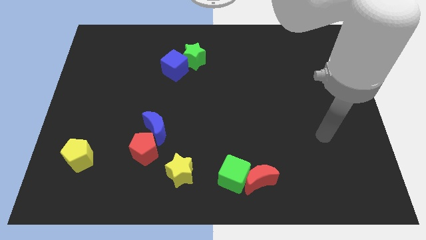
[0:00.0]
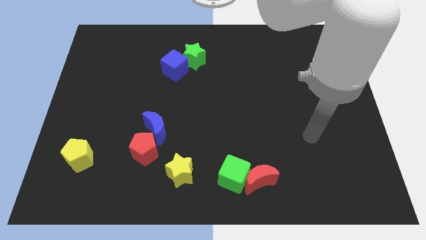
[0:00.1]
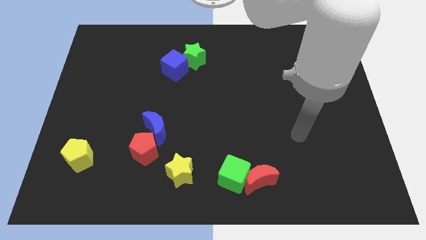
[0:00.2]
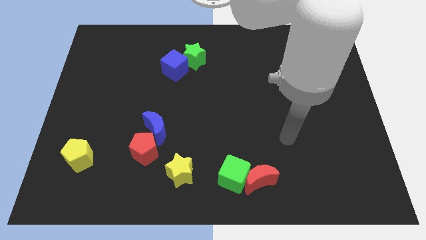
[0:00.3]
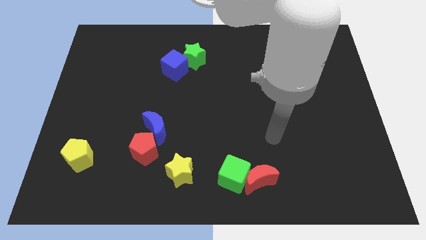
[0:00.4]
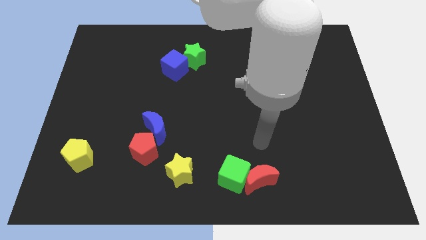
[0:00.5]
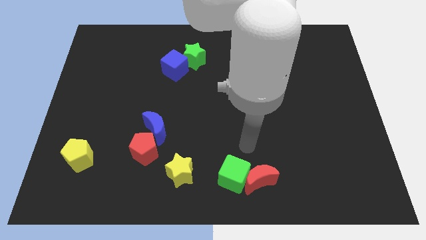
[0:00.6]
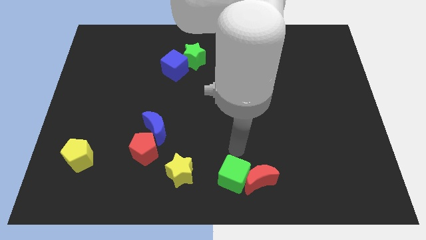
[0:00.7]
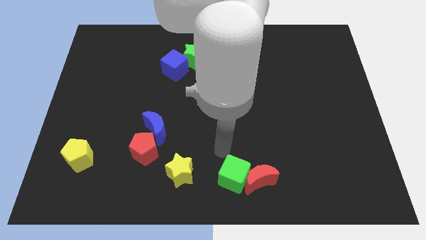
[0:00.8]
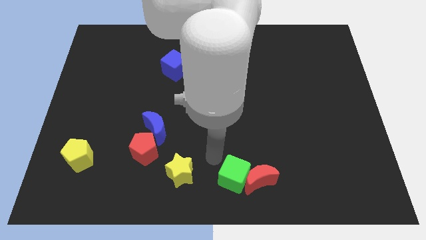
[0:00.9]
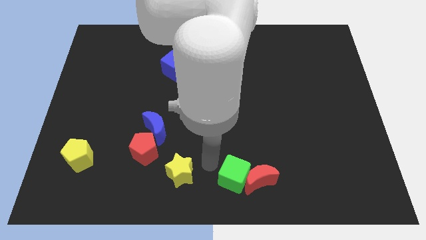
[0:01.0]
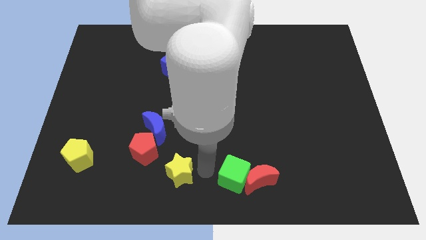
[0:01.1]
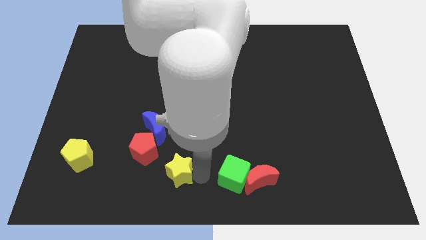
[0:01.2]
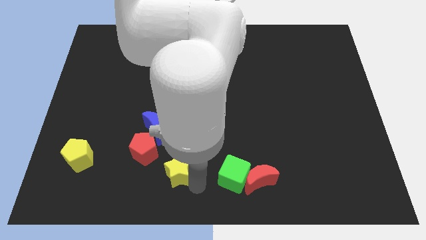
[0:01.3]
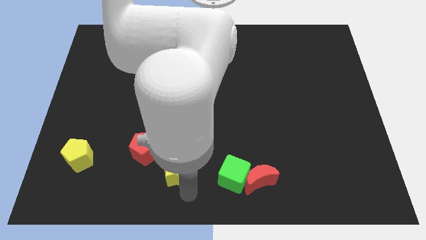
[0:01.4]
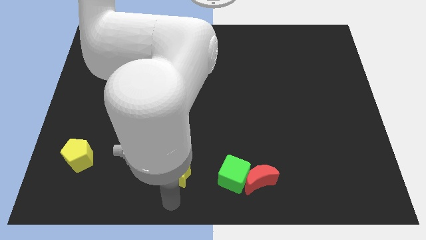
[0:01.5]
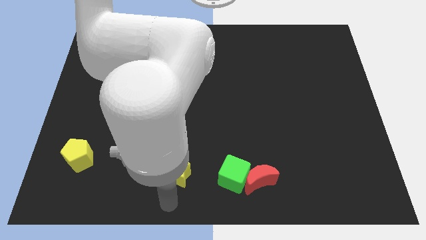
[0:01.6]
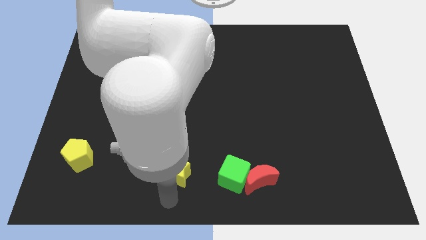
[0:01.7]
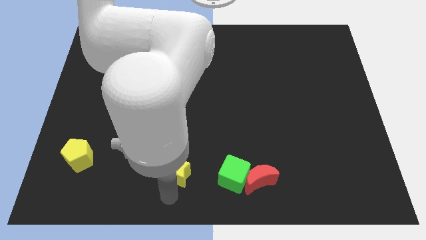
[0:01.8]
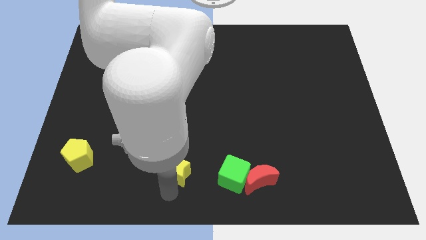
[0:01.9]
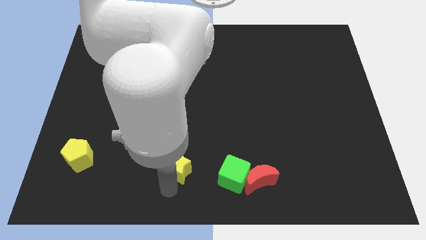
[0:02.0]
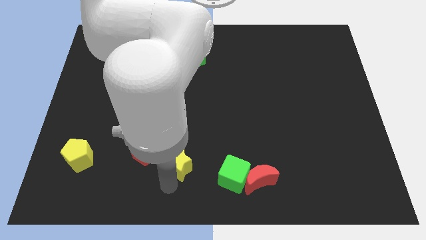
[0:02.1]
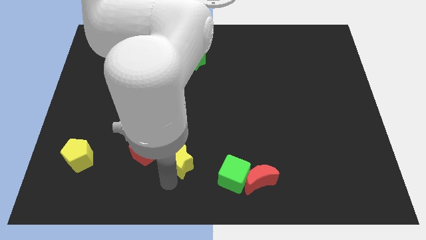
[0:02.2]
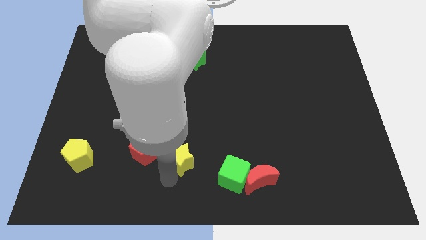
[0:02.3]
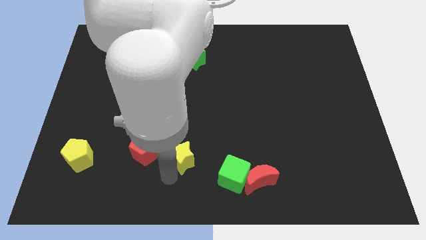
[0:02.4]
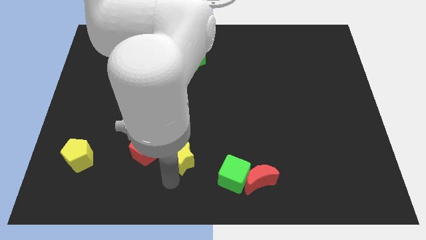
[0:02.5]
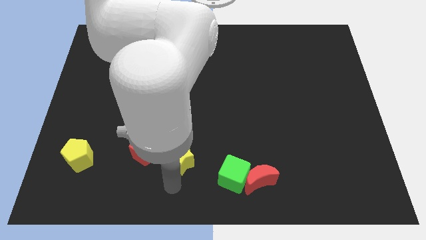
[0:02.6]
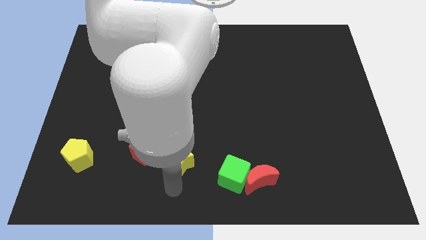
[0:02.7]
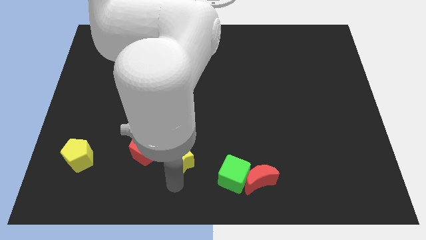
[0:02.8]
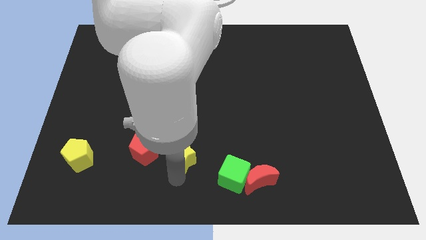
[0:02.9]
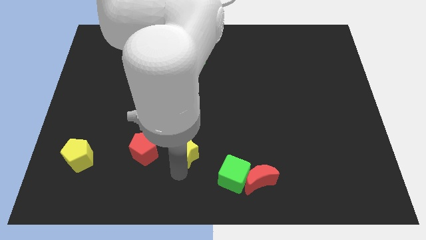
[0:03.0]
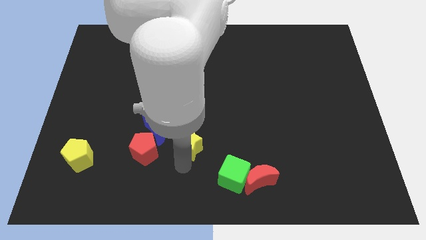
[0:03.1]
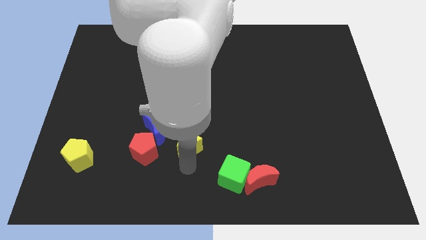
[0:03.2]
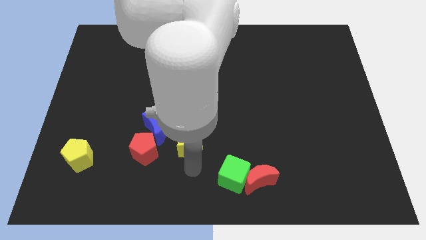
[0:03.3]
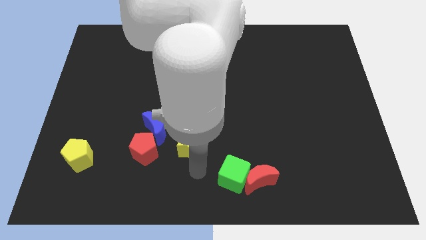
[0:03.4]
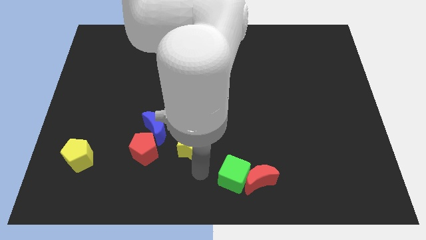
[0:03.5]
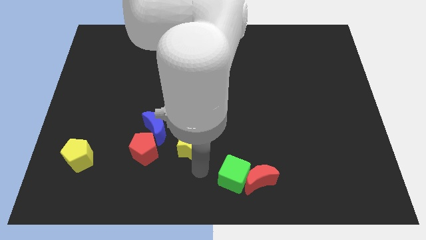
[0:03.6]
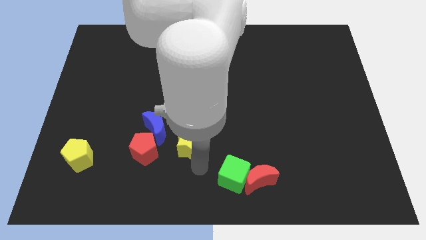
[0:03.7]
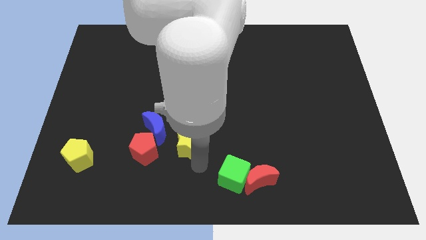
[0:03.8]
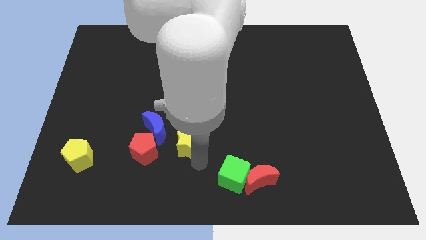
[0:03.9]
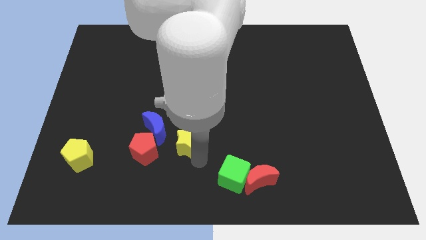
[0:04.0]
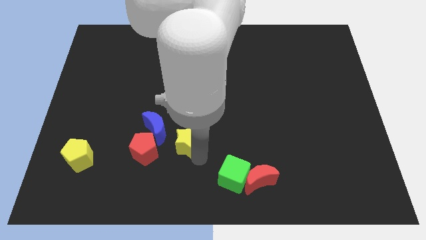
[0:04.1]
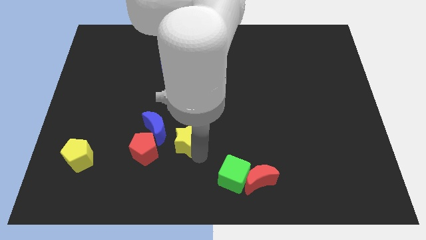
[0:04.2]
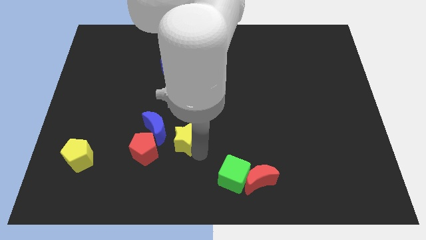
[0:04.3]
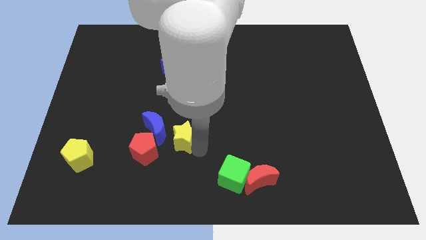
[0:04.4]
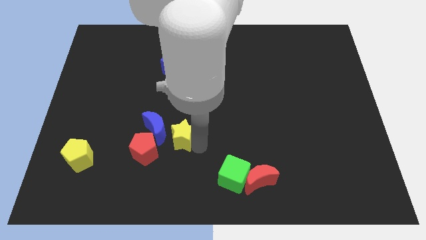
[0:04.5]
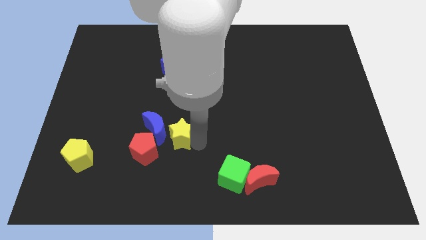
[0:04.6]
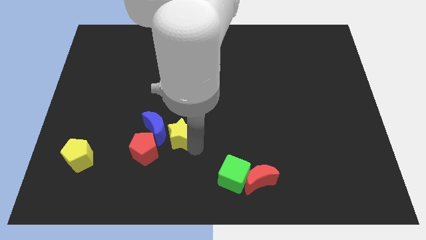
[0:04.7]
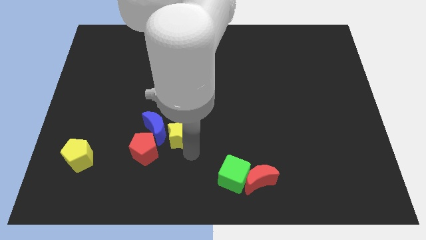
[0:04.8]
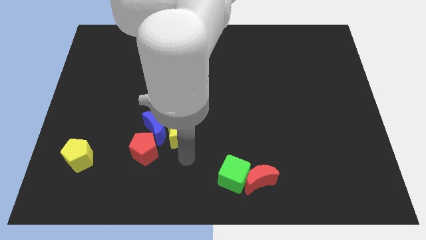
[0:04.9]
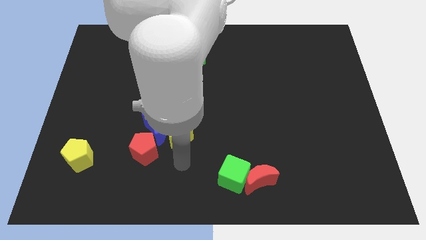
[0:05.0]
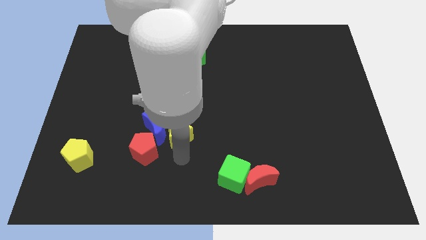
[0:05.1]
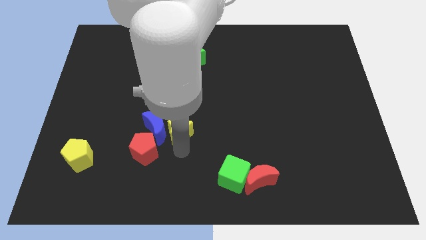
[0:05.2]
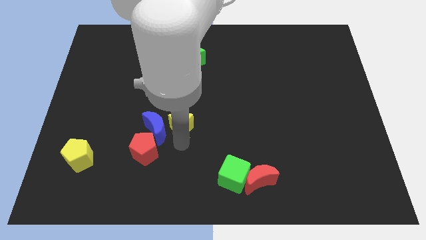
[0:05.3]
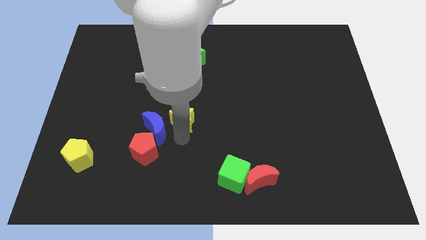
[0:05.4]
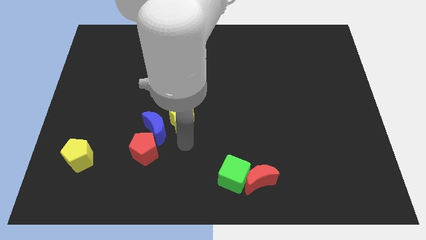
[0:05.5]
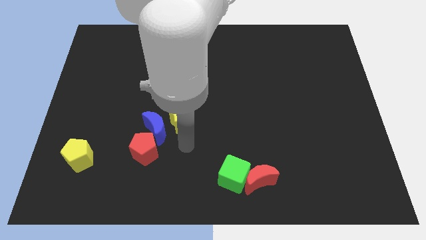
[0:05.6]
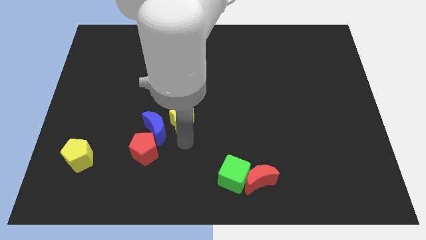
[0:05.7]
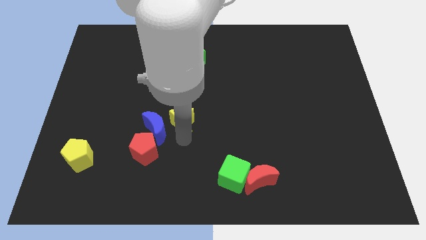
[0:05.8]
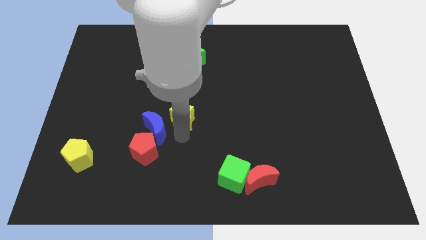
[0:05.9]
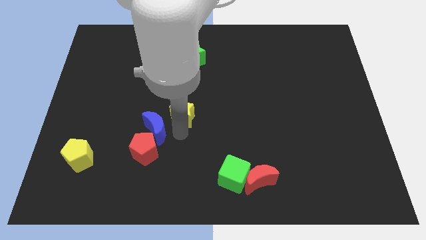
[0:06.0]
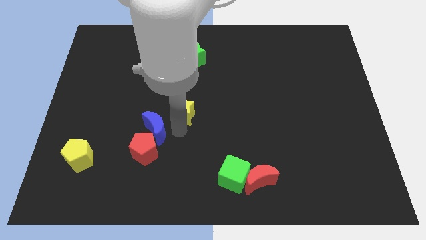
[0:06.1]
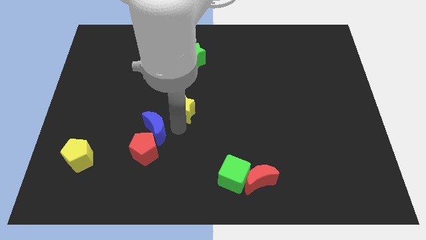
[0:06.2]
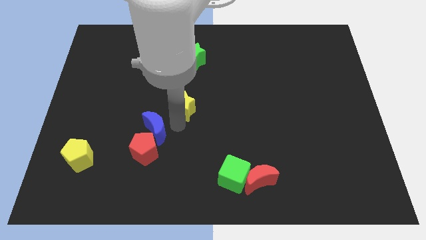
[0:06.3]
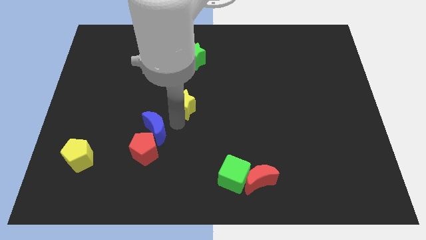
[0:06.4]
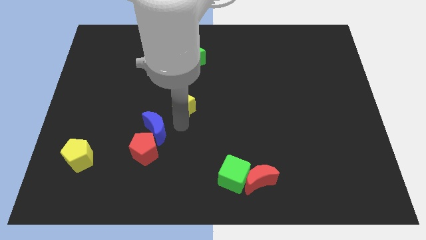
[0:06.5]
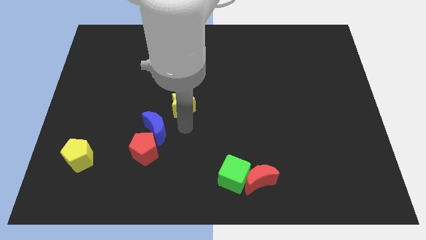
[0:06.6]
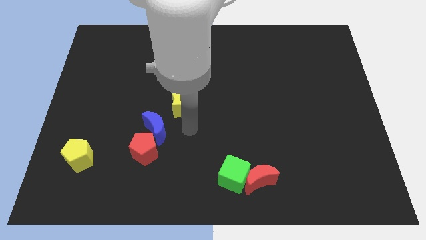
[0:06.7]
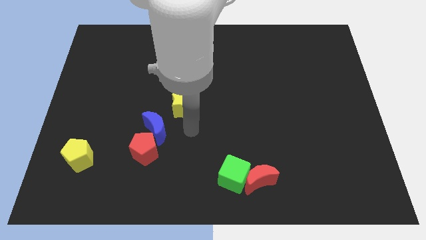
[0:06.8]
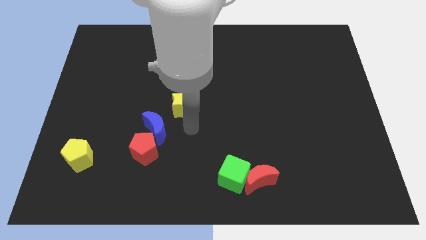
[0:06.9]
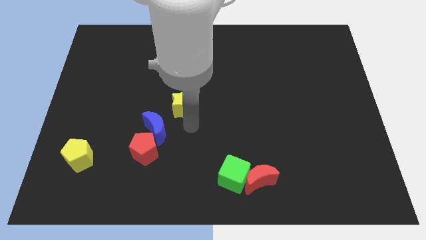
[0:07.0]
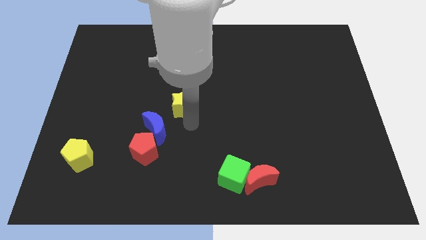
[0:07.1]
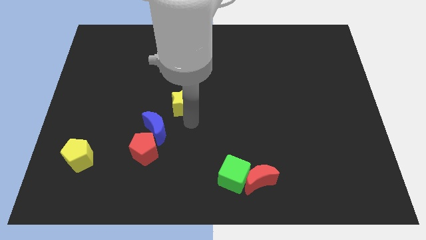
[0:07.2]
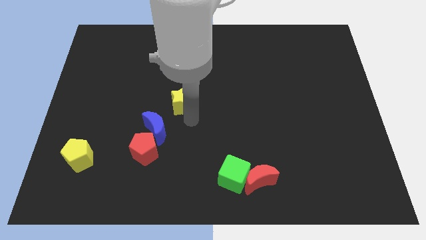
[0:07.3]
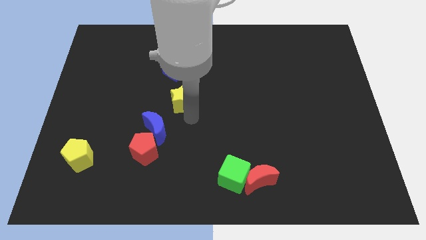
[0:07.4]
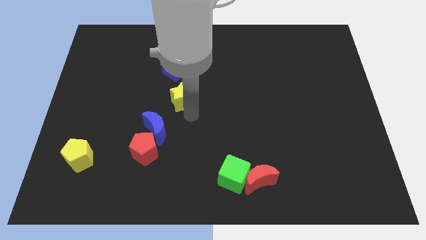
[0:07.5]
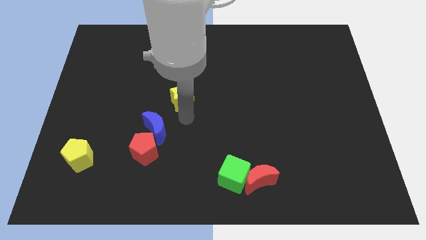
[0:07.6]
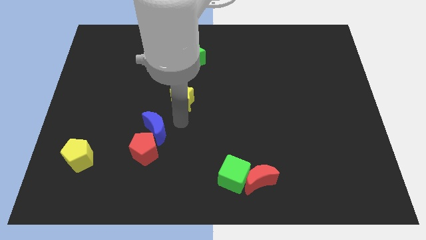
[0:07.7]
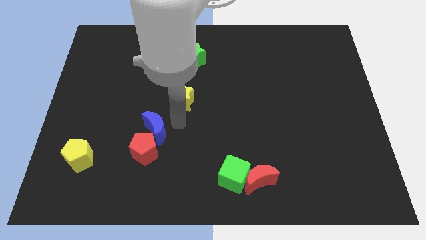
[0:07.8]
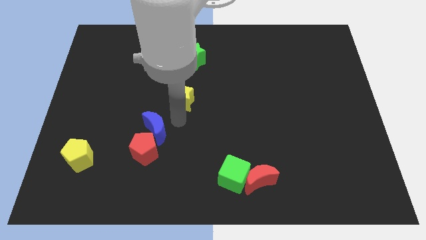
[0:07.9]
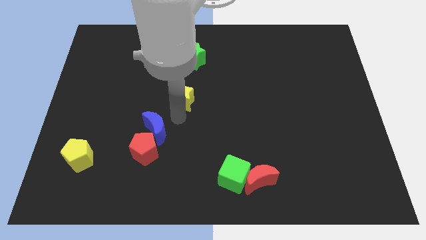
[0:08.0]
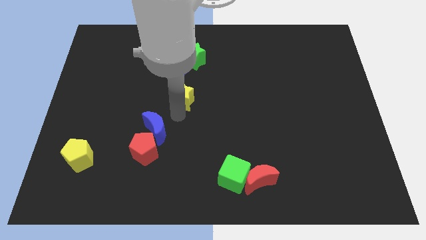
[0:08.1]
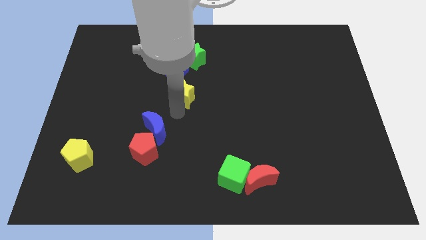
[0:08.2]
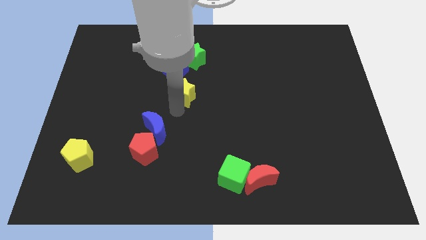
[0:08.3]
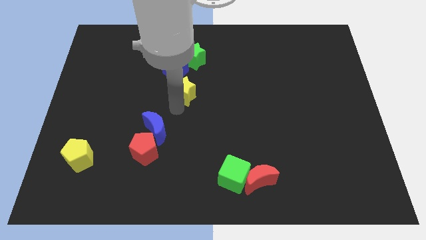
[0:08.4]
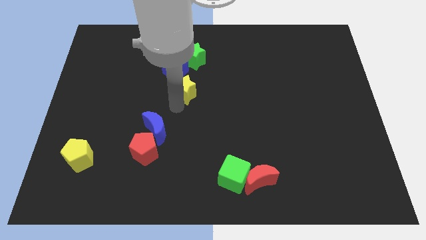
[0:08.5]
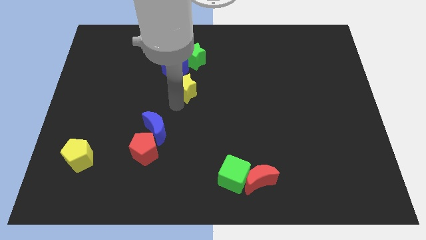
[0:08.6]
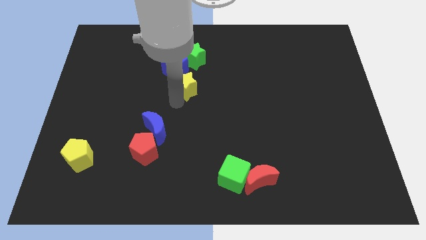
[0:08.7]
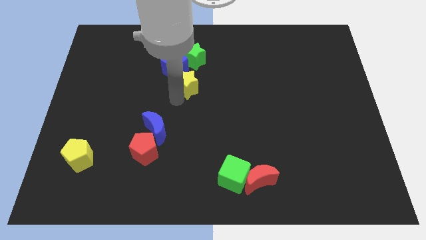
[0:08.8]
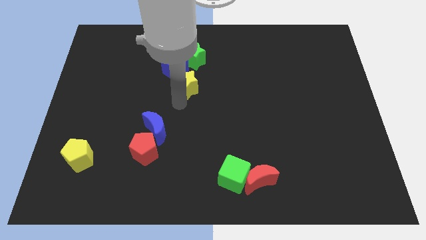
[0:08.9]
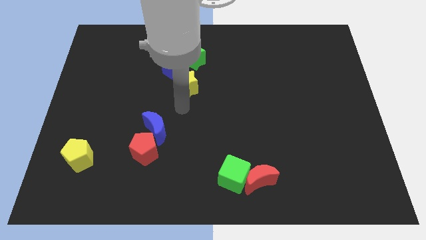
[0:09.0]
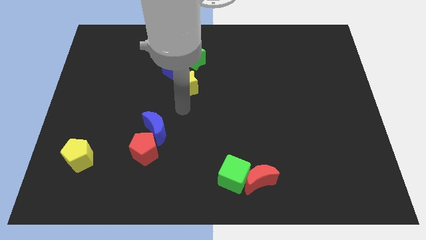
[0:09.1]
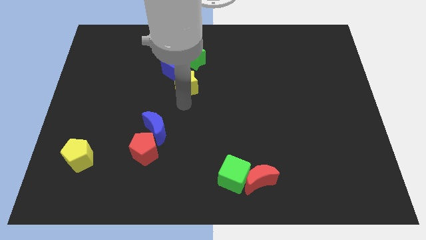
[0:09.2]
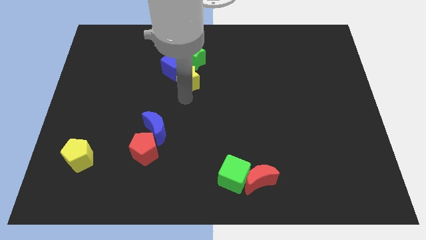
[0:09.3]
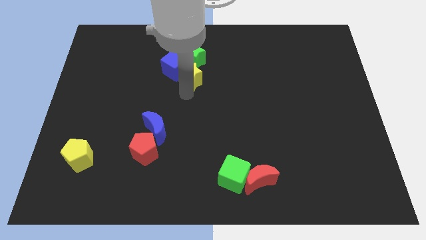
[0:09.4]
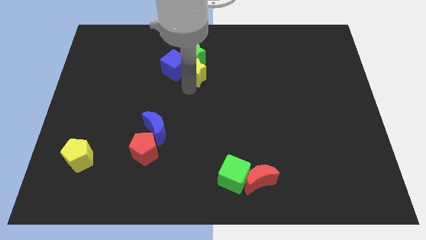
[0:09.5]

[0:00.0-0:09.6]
slide the yellow star close to the green star
